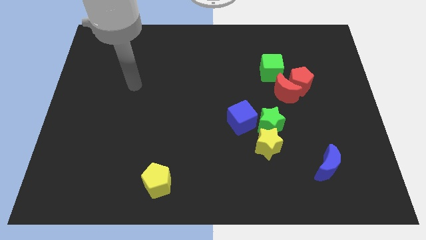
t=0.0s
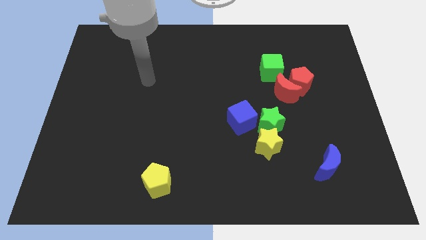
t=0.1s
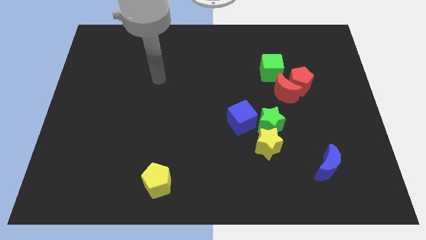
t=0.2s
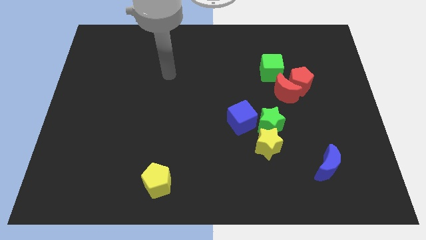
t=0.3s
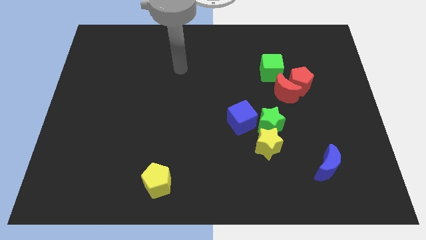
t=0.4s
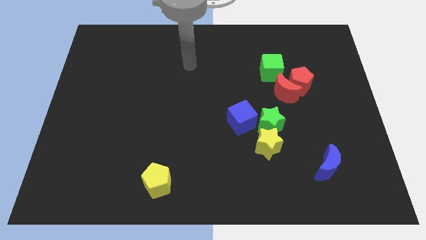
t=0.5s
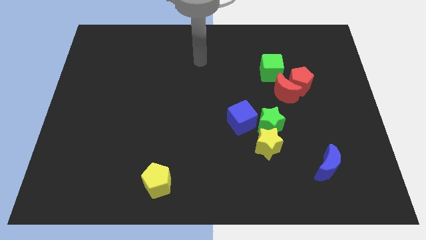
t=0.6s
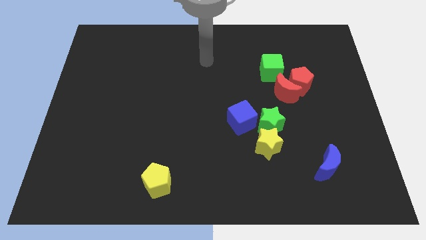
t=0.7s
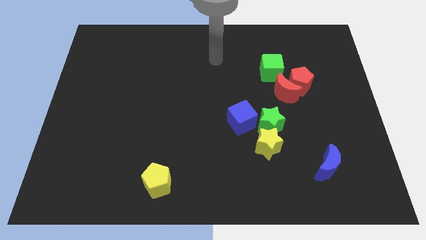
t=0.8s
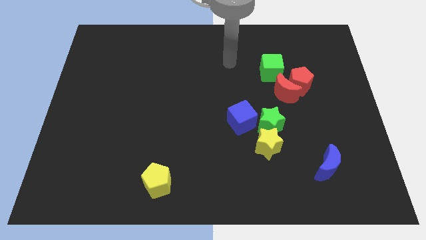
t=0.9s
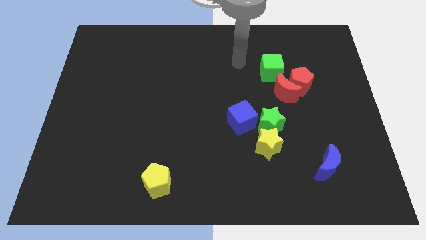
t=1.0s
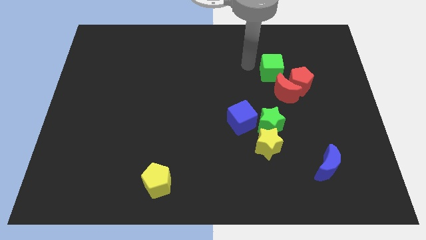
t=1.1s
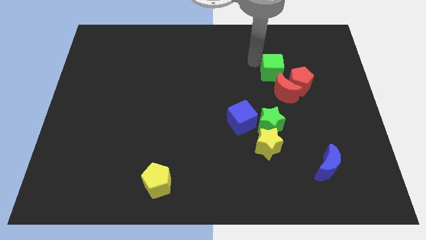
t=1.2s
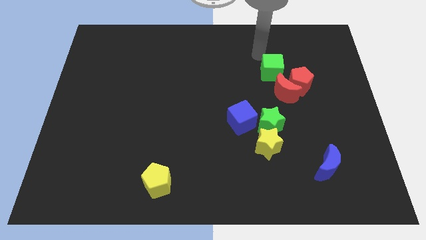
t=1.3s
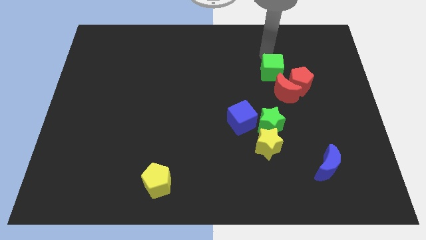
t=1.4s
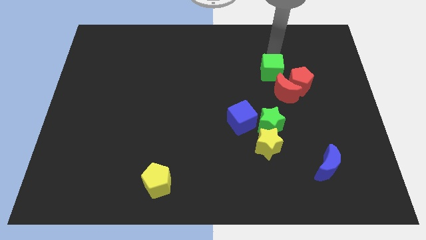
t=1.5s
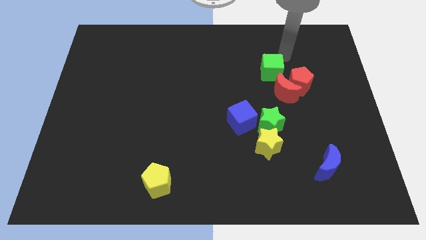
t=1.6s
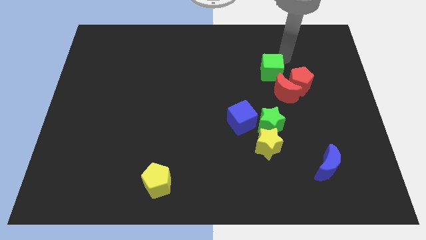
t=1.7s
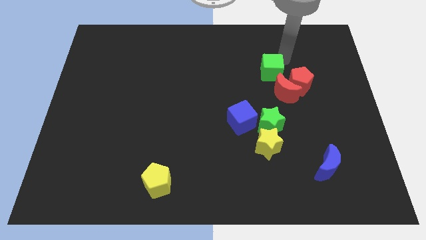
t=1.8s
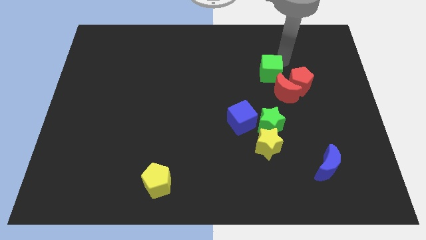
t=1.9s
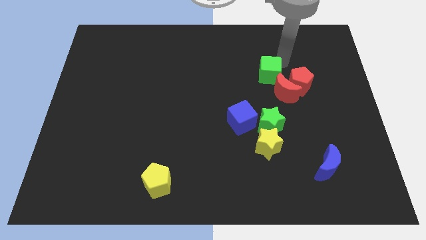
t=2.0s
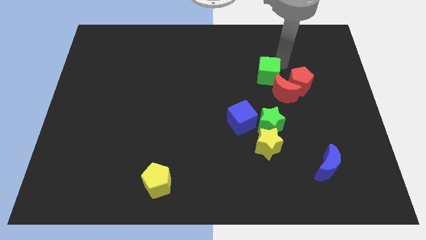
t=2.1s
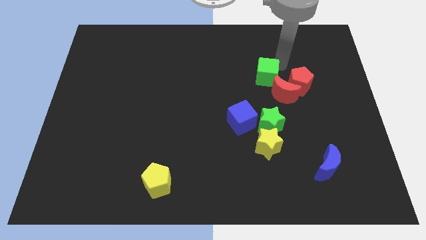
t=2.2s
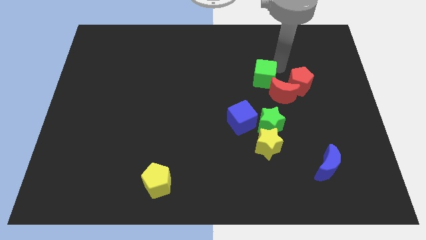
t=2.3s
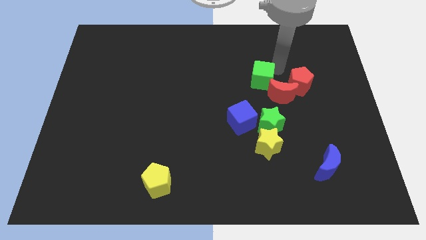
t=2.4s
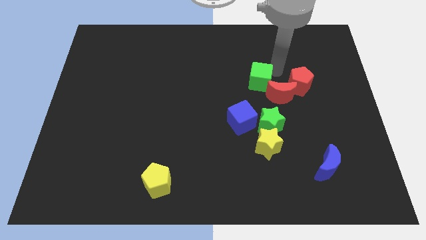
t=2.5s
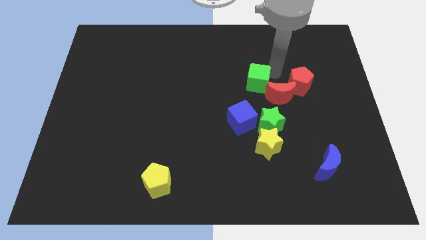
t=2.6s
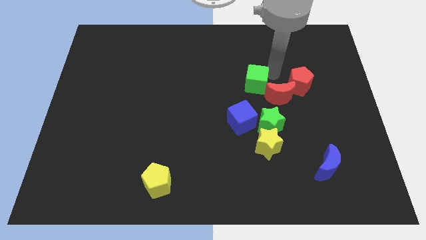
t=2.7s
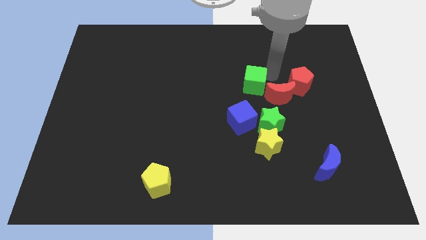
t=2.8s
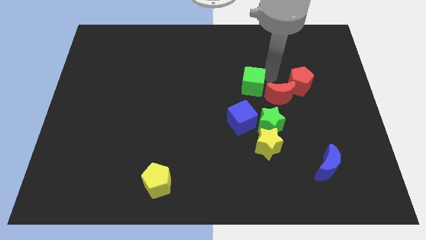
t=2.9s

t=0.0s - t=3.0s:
move the green cube a bit diagonally downwards and left

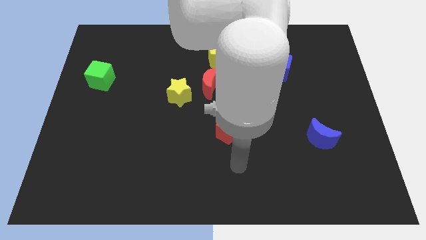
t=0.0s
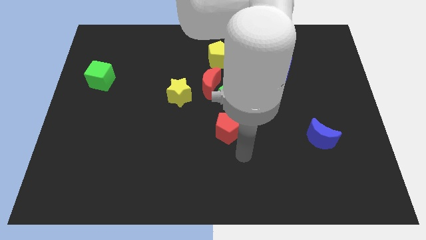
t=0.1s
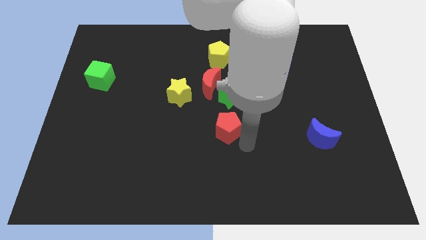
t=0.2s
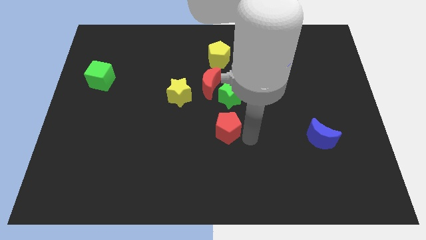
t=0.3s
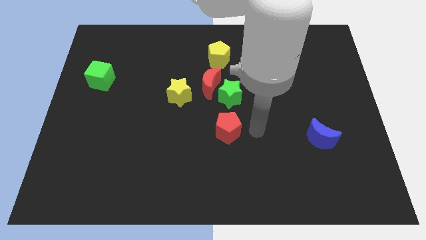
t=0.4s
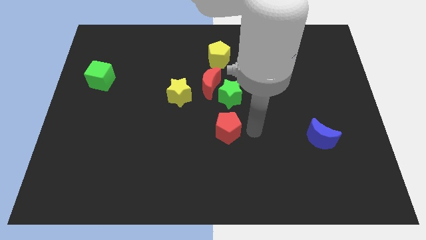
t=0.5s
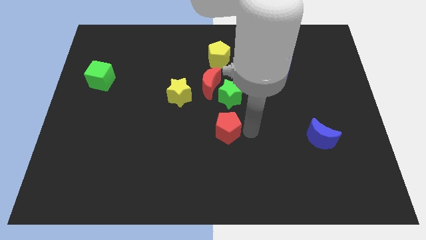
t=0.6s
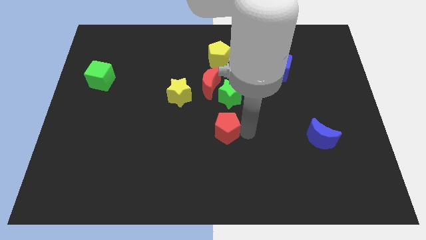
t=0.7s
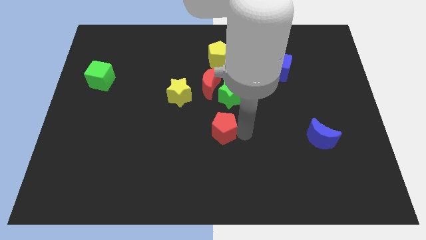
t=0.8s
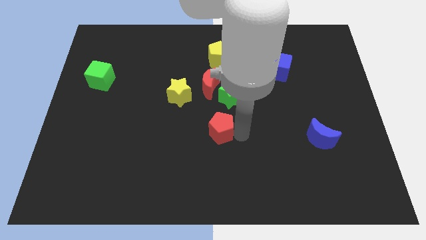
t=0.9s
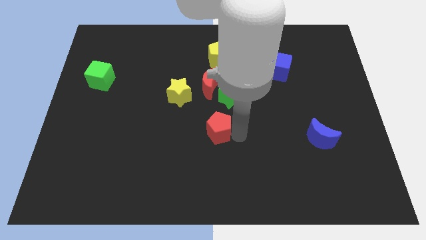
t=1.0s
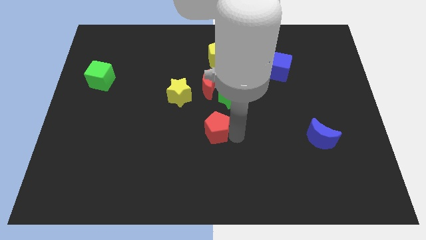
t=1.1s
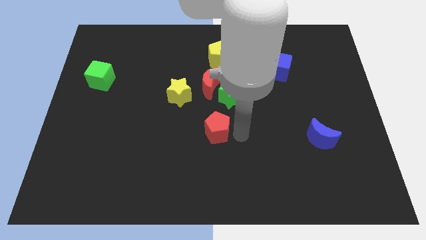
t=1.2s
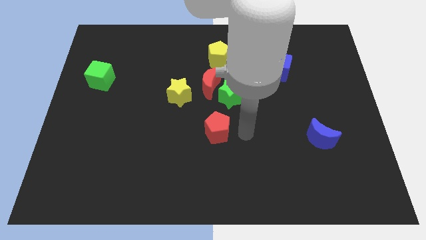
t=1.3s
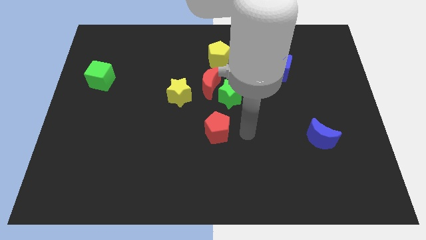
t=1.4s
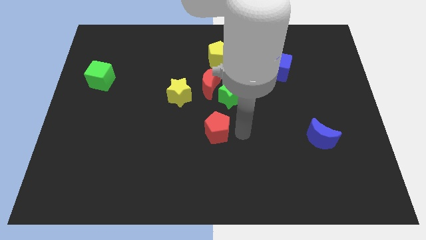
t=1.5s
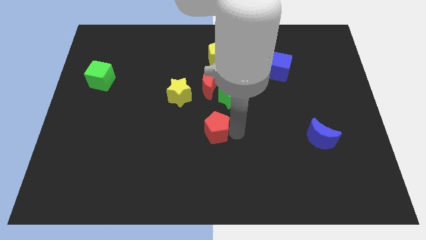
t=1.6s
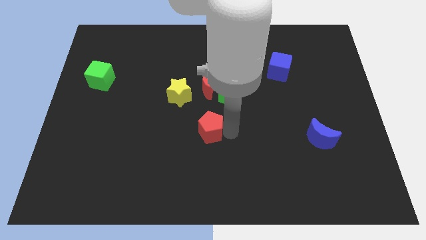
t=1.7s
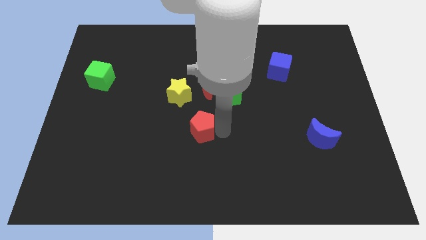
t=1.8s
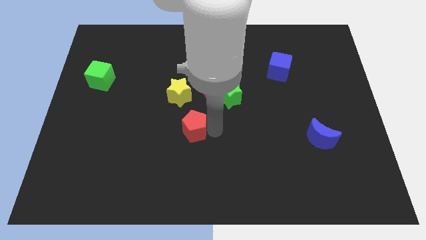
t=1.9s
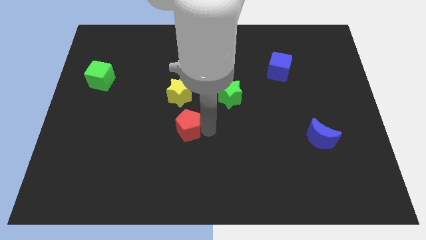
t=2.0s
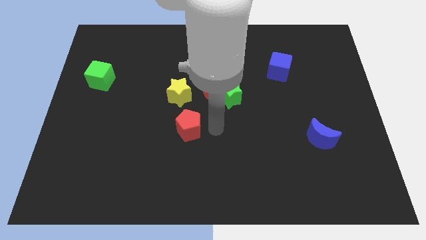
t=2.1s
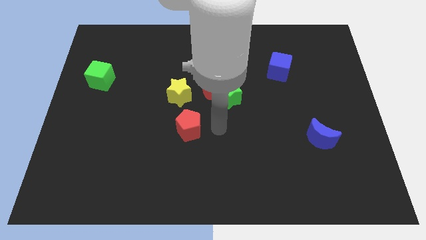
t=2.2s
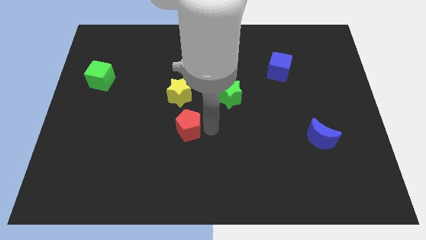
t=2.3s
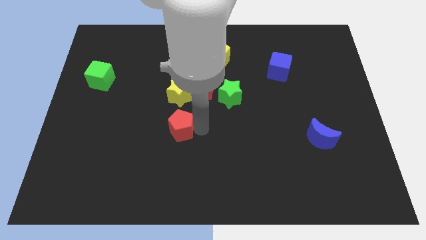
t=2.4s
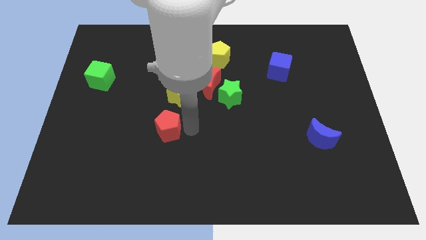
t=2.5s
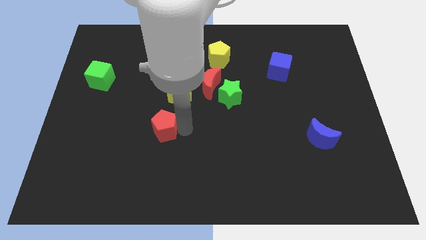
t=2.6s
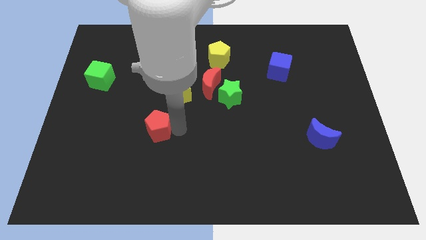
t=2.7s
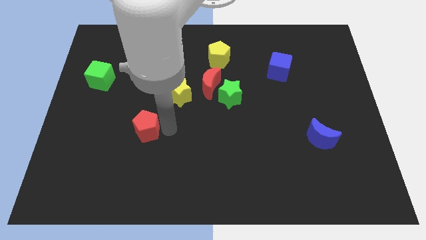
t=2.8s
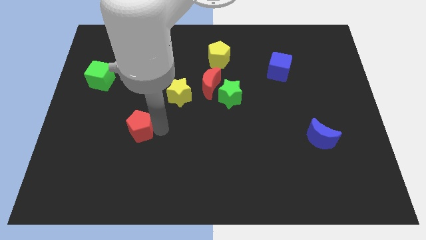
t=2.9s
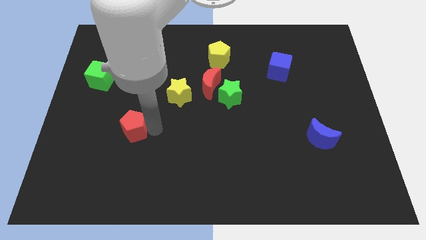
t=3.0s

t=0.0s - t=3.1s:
slide the red pentagon to the left

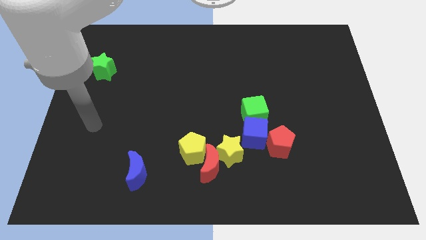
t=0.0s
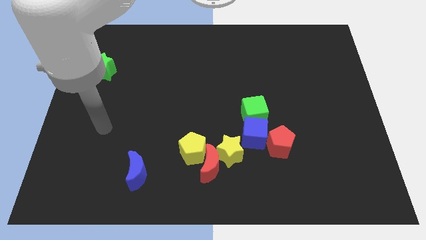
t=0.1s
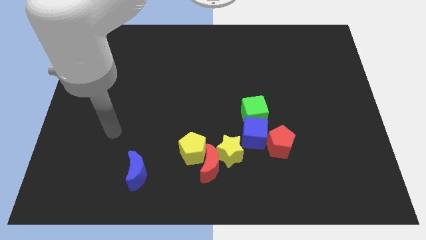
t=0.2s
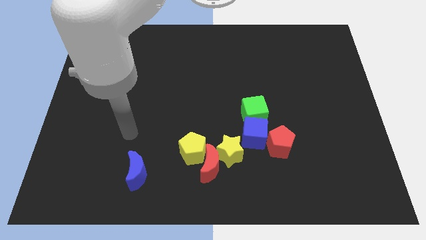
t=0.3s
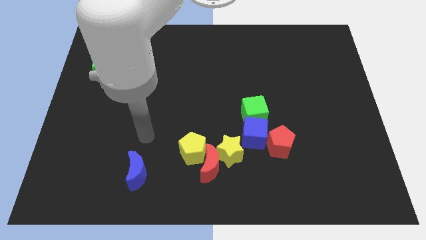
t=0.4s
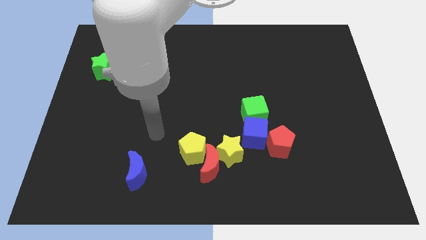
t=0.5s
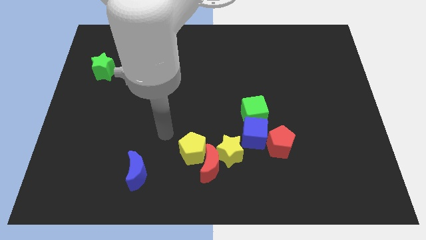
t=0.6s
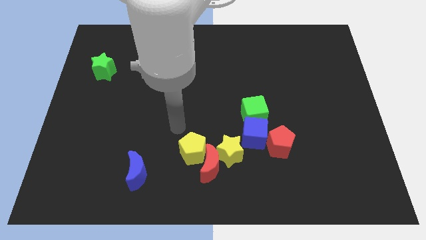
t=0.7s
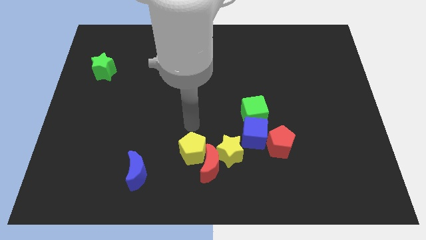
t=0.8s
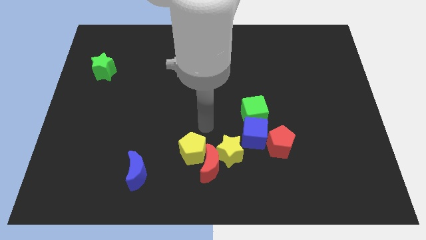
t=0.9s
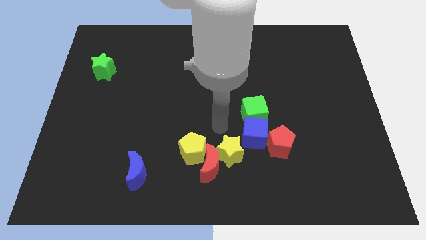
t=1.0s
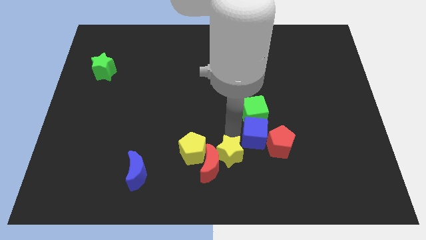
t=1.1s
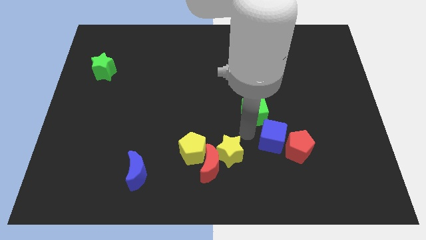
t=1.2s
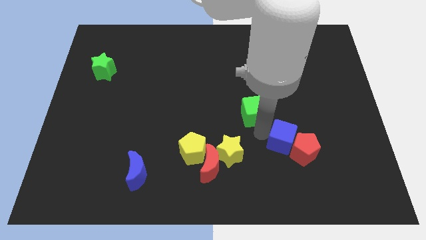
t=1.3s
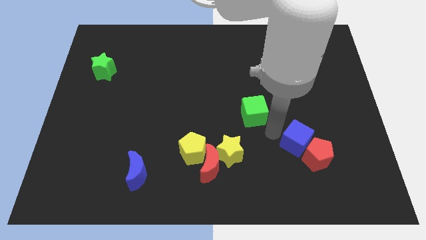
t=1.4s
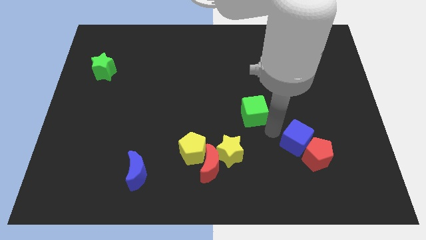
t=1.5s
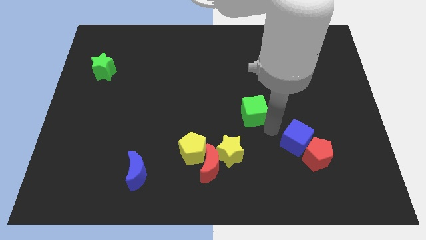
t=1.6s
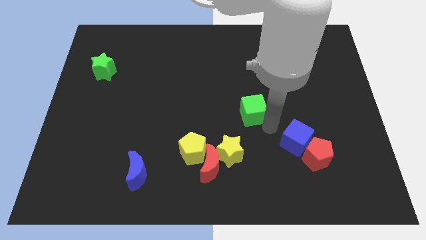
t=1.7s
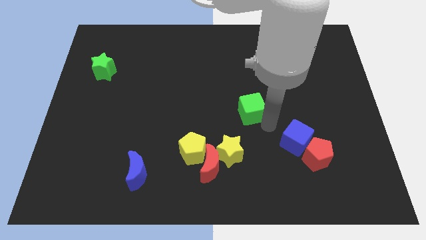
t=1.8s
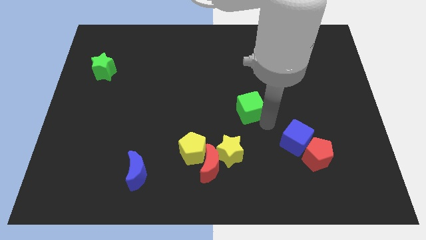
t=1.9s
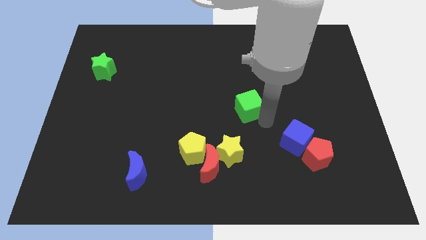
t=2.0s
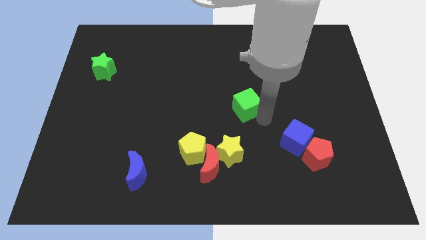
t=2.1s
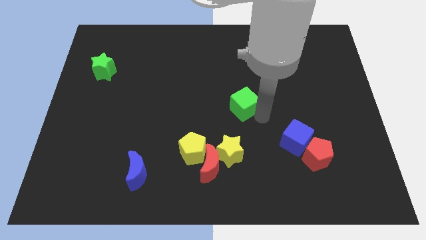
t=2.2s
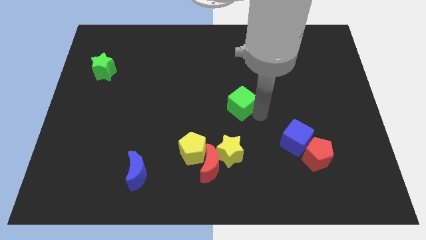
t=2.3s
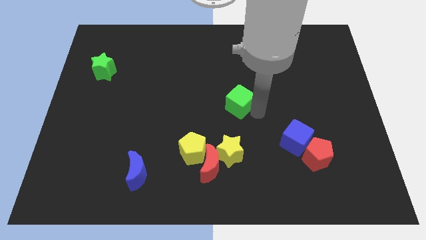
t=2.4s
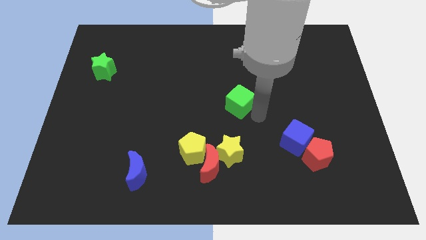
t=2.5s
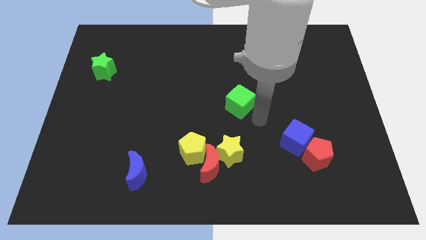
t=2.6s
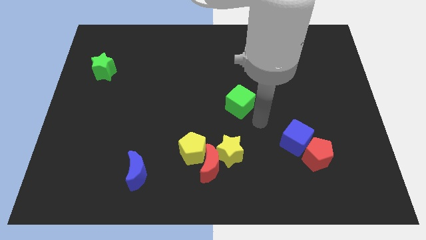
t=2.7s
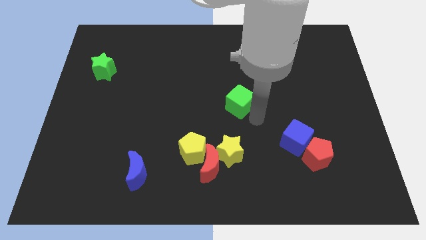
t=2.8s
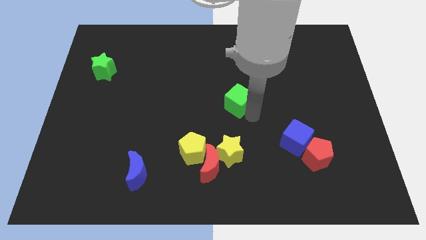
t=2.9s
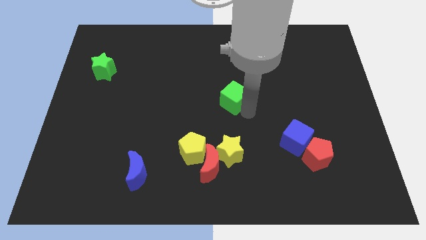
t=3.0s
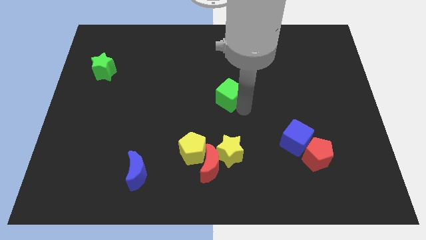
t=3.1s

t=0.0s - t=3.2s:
slide the green cube up and left a bit
